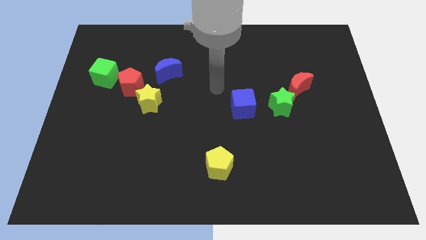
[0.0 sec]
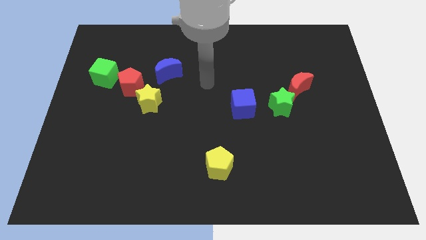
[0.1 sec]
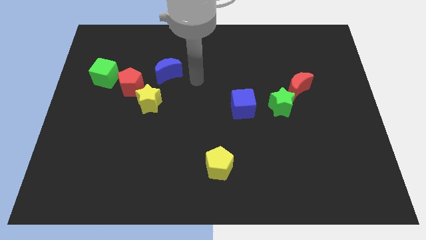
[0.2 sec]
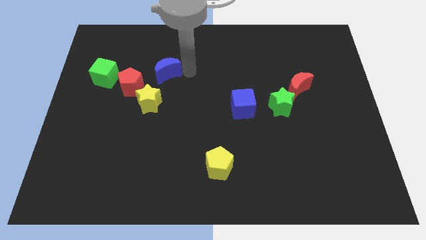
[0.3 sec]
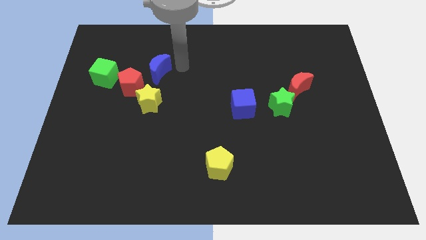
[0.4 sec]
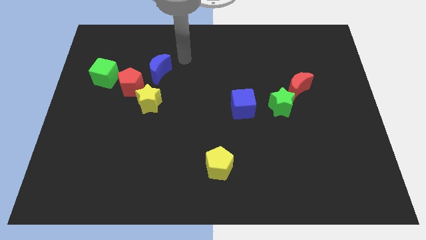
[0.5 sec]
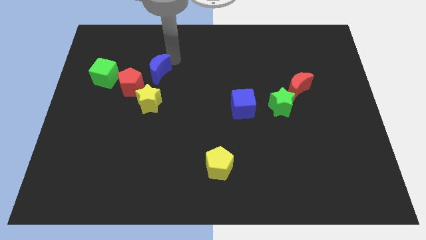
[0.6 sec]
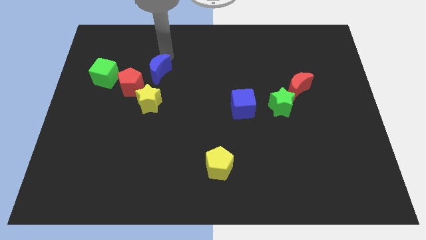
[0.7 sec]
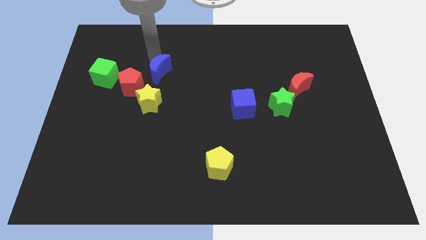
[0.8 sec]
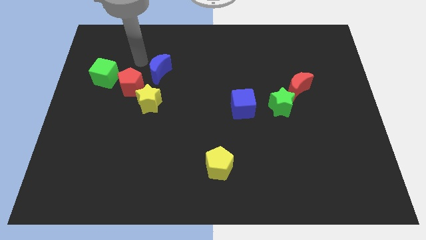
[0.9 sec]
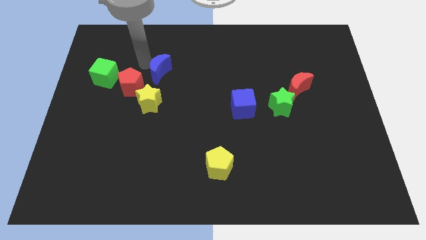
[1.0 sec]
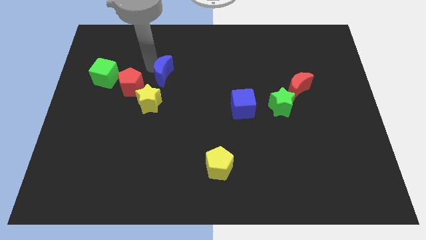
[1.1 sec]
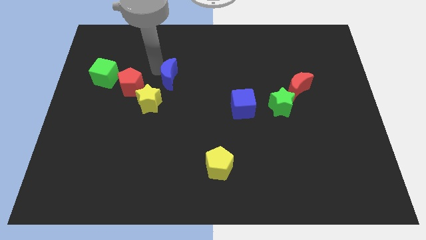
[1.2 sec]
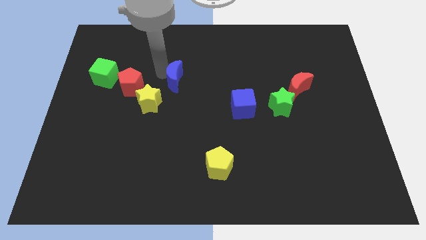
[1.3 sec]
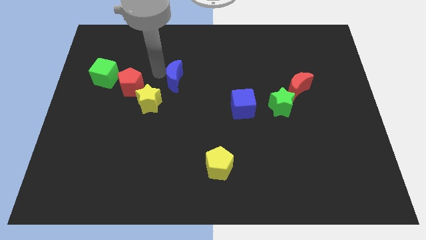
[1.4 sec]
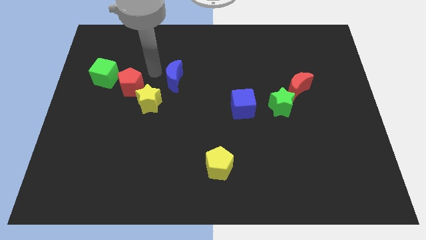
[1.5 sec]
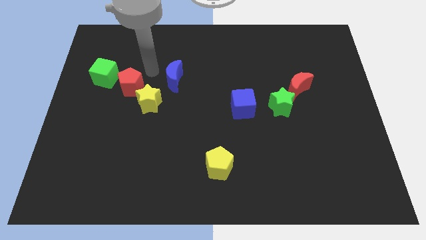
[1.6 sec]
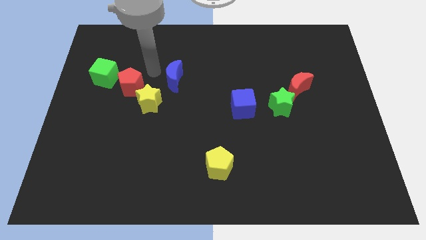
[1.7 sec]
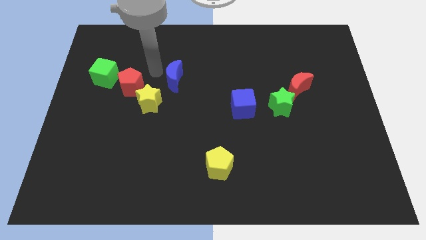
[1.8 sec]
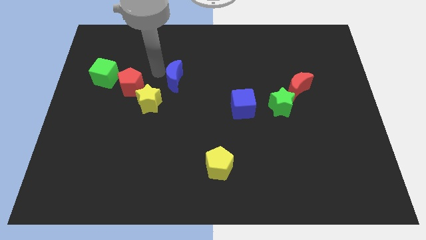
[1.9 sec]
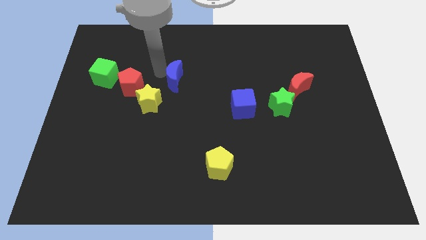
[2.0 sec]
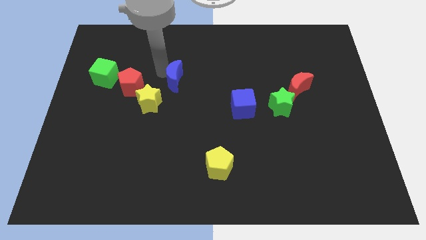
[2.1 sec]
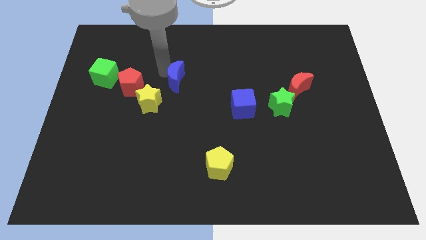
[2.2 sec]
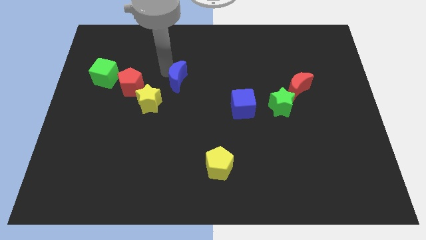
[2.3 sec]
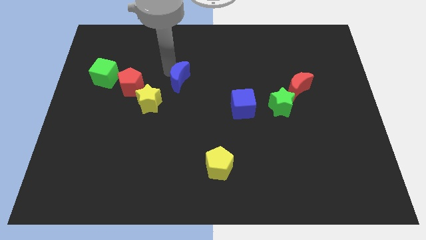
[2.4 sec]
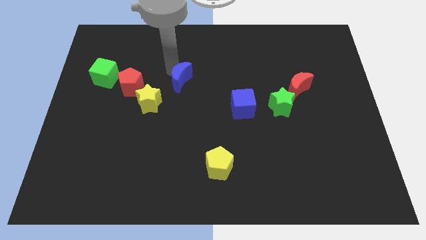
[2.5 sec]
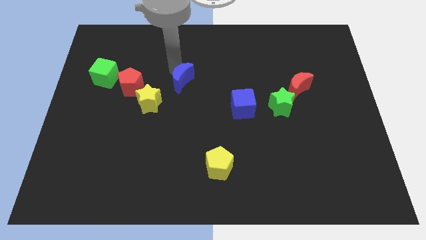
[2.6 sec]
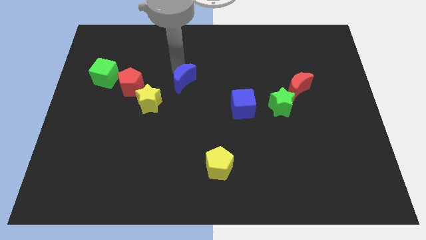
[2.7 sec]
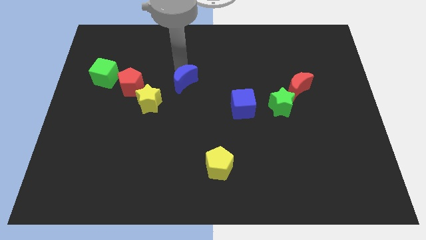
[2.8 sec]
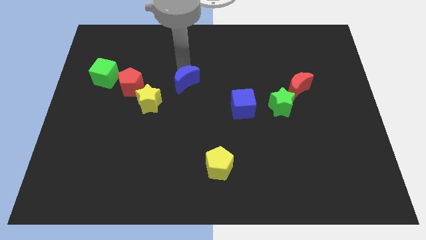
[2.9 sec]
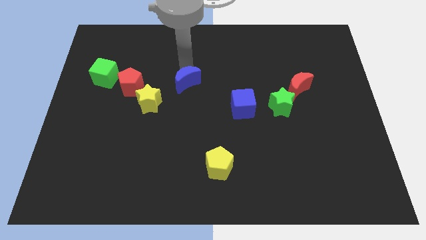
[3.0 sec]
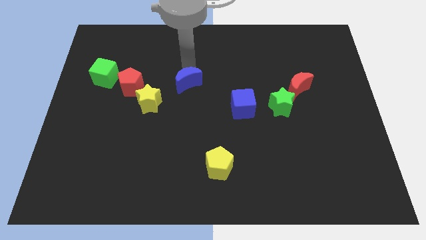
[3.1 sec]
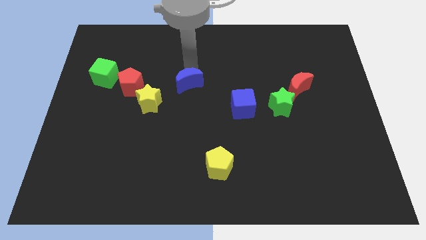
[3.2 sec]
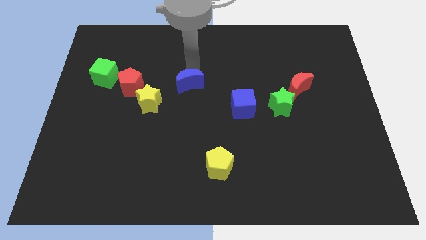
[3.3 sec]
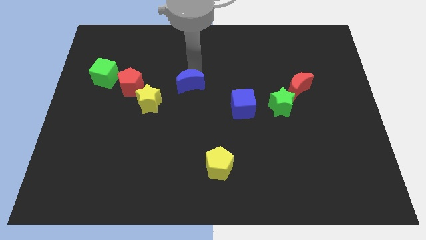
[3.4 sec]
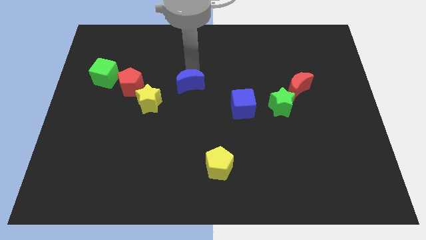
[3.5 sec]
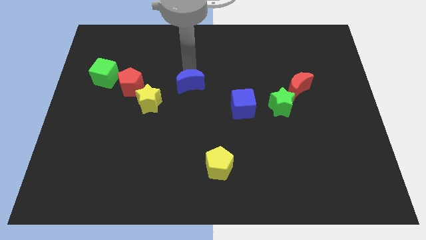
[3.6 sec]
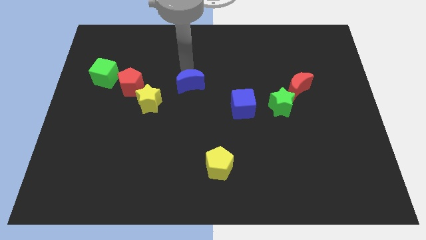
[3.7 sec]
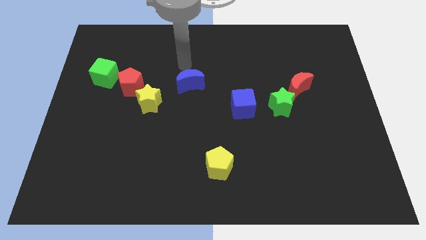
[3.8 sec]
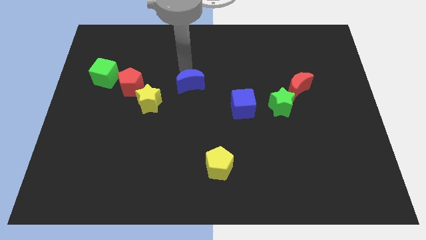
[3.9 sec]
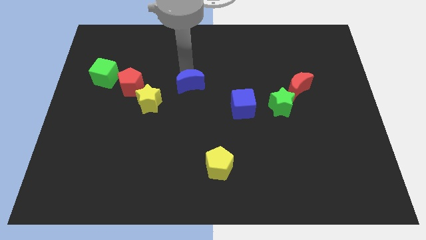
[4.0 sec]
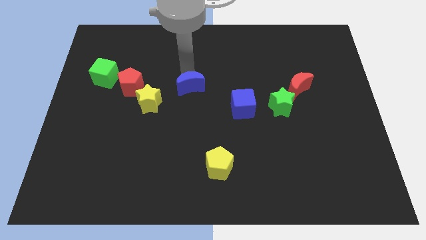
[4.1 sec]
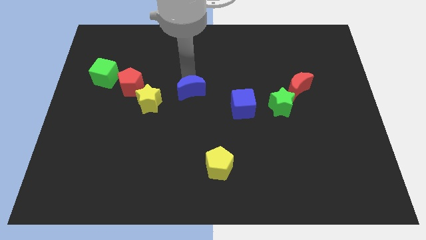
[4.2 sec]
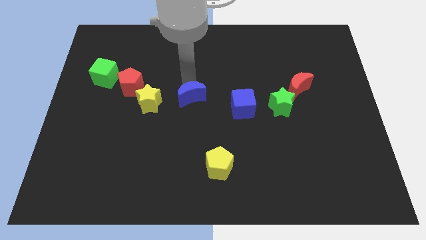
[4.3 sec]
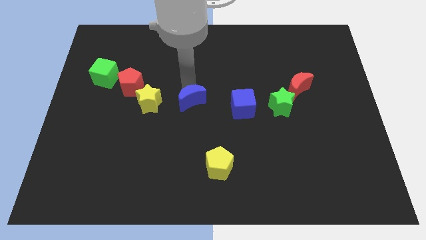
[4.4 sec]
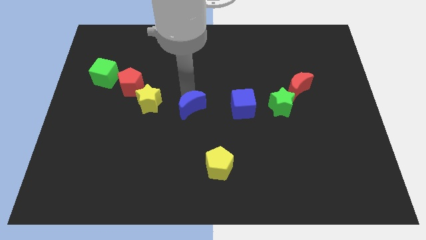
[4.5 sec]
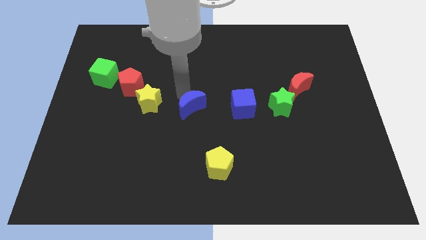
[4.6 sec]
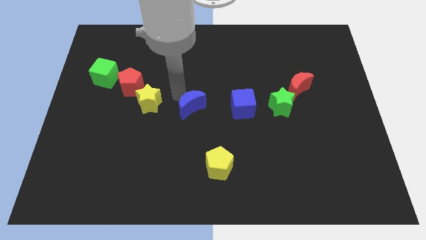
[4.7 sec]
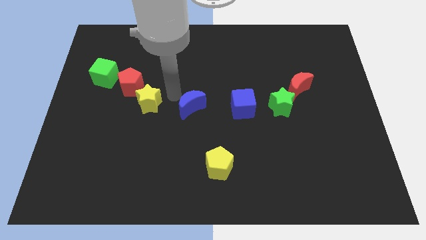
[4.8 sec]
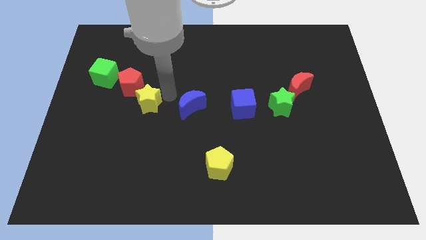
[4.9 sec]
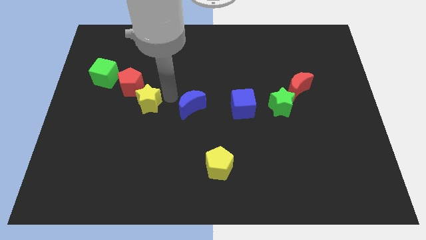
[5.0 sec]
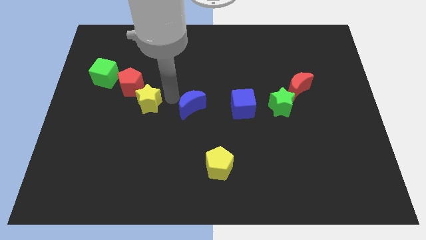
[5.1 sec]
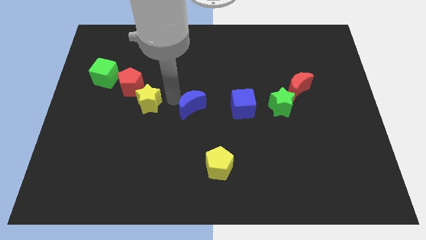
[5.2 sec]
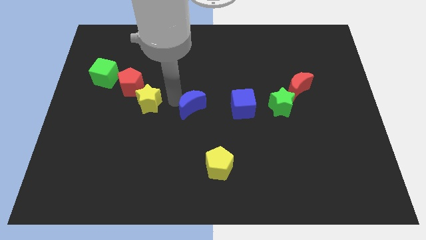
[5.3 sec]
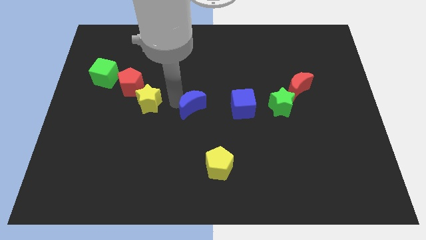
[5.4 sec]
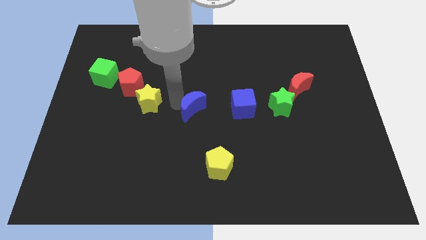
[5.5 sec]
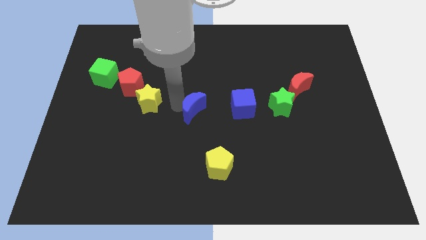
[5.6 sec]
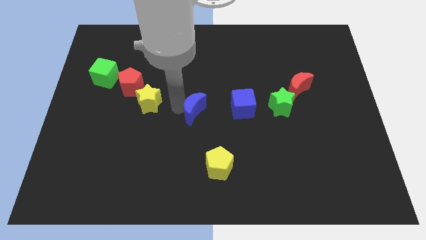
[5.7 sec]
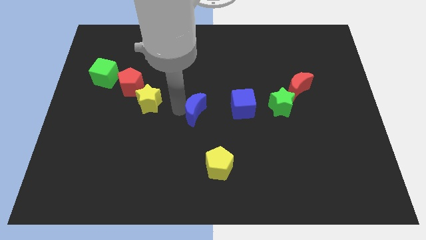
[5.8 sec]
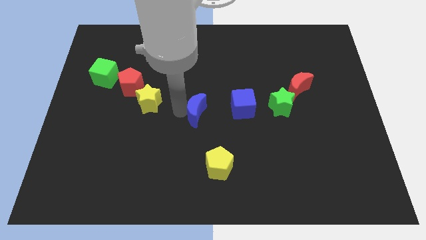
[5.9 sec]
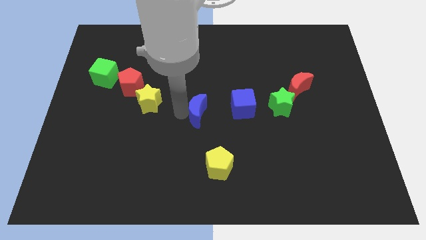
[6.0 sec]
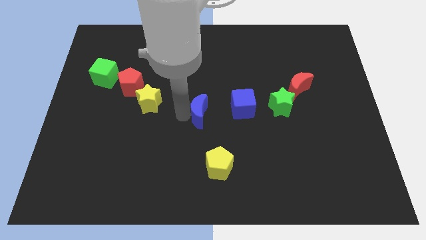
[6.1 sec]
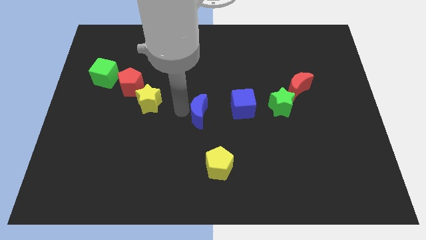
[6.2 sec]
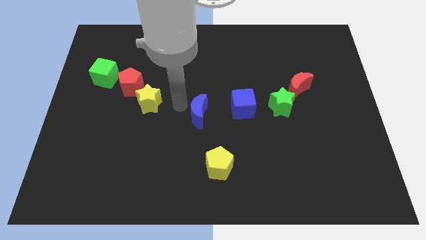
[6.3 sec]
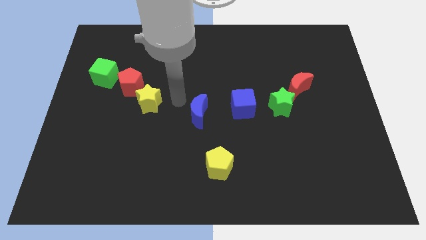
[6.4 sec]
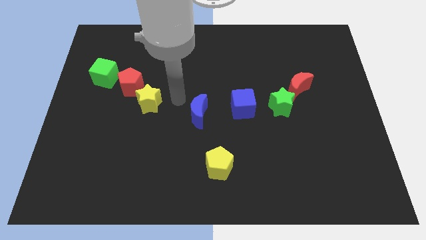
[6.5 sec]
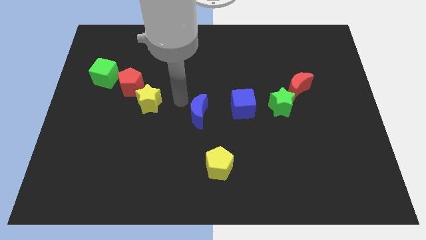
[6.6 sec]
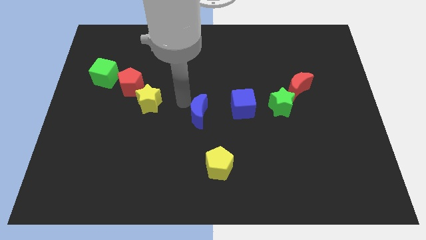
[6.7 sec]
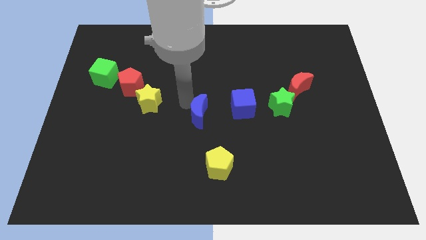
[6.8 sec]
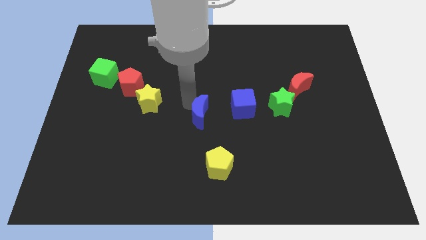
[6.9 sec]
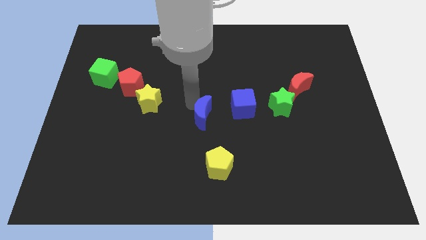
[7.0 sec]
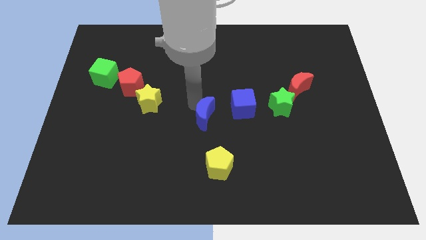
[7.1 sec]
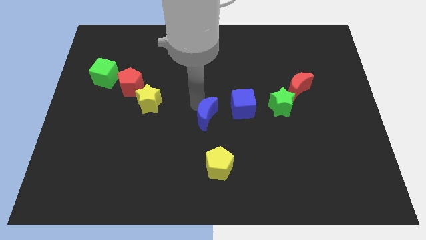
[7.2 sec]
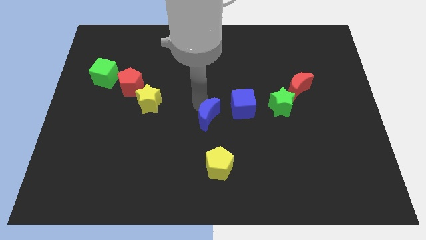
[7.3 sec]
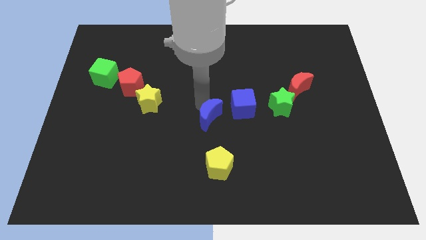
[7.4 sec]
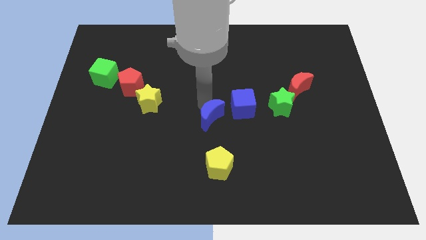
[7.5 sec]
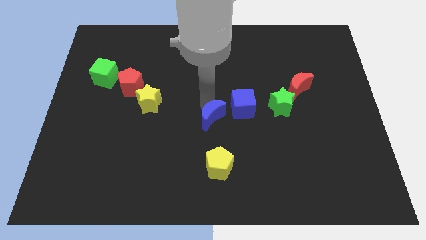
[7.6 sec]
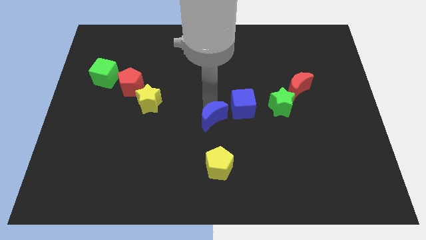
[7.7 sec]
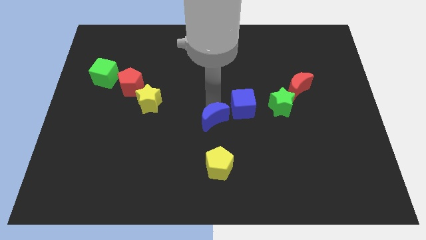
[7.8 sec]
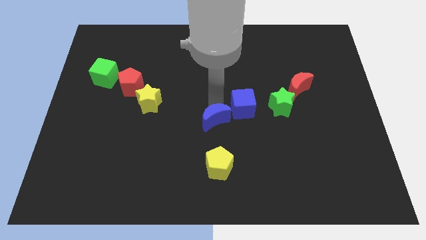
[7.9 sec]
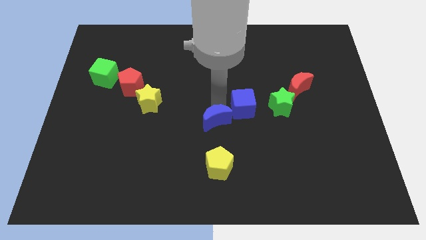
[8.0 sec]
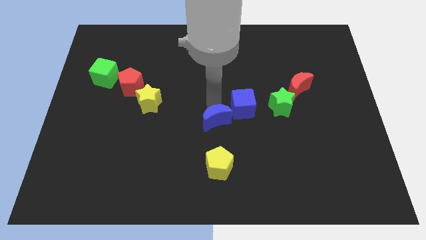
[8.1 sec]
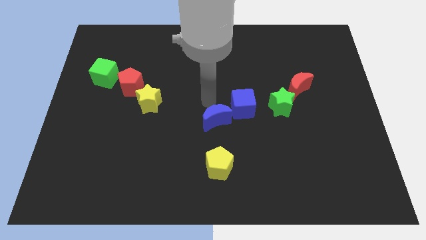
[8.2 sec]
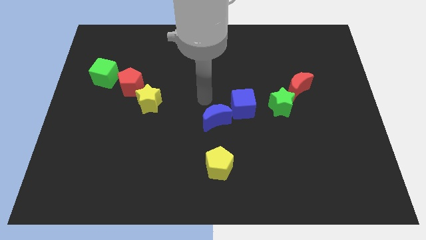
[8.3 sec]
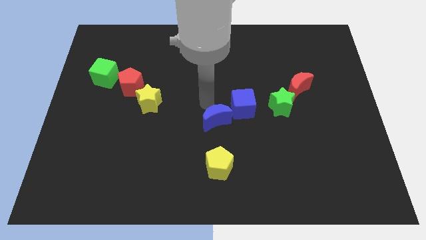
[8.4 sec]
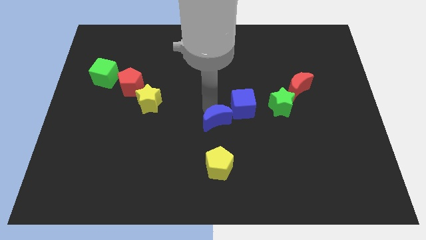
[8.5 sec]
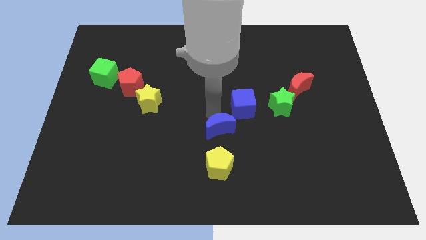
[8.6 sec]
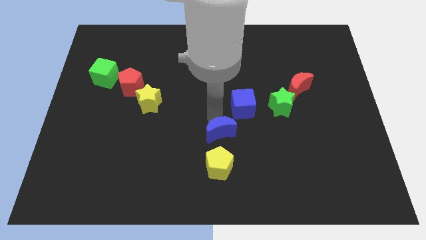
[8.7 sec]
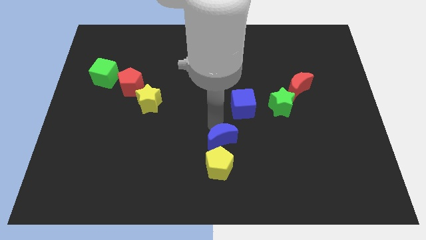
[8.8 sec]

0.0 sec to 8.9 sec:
push the blue moon diagonally up and to the right of the yellow pentagon
